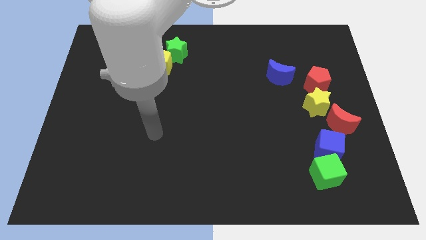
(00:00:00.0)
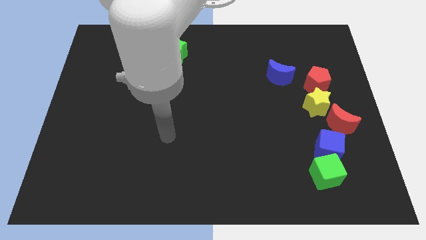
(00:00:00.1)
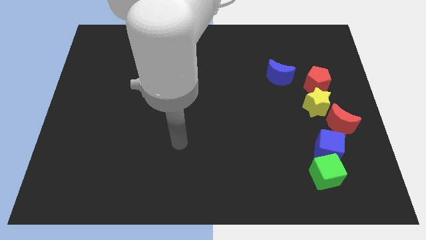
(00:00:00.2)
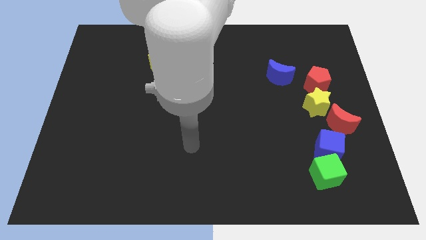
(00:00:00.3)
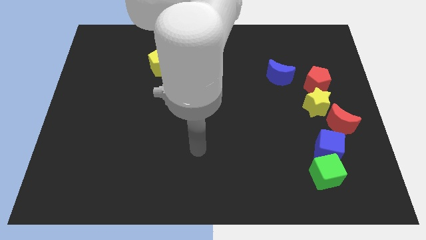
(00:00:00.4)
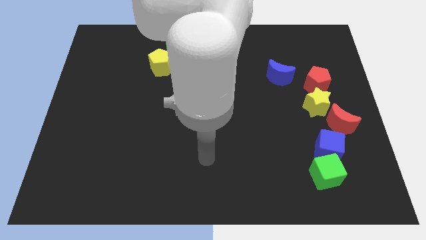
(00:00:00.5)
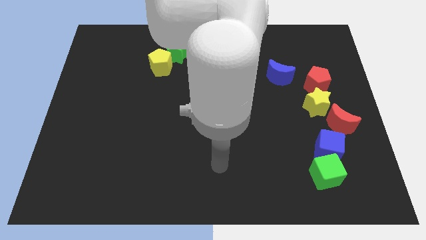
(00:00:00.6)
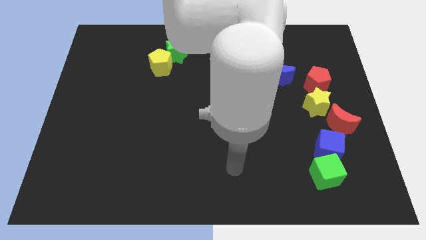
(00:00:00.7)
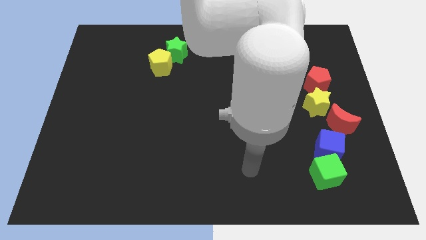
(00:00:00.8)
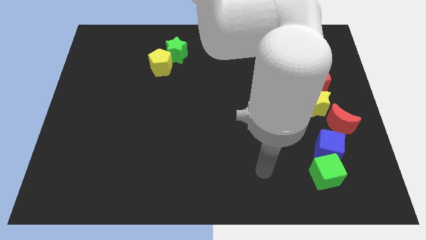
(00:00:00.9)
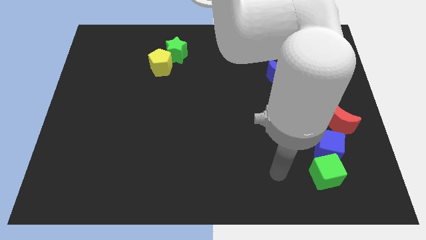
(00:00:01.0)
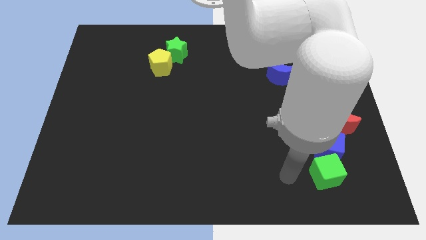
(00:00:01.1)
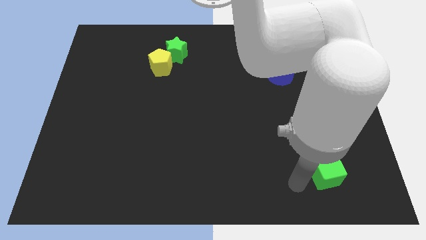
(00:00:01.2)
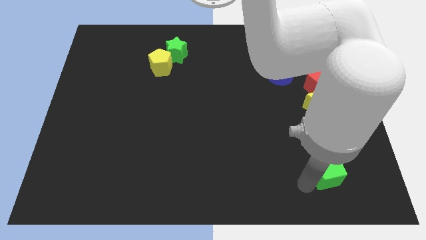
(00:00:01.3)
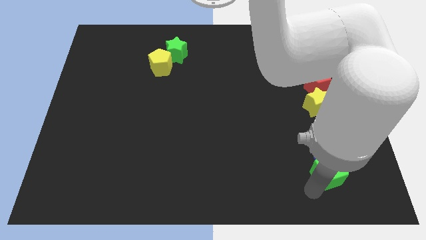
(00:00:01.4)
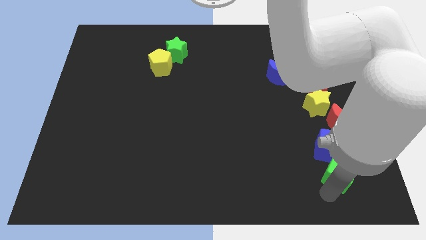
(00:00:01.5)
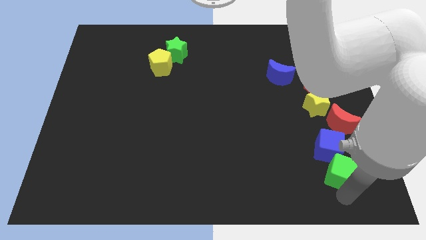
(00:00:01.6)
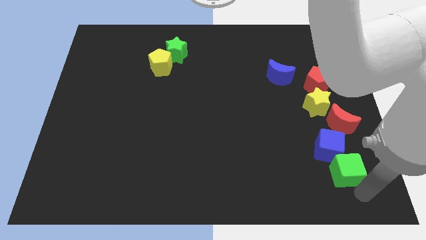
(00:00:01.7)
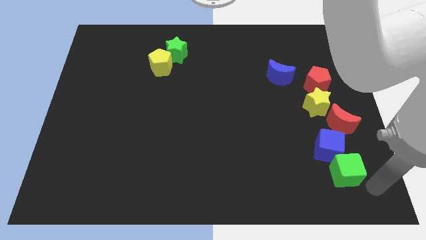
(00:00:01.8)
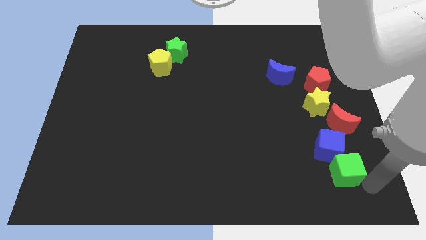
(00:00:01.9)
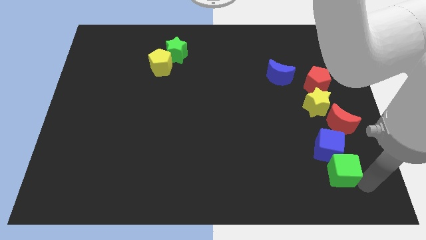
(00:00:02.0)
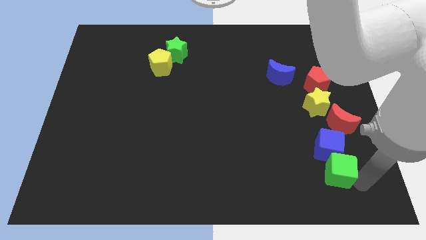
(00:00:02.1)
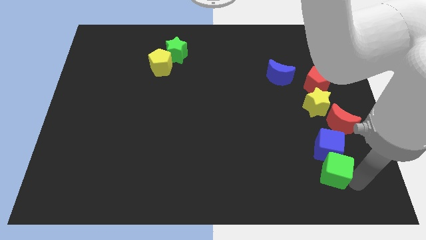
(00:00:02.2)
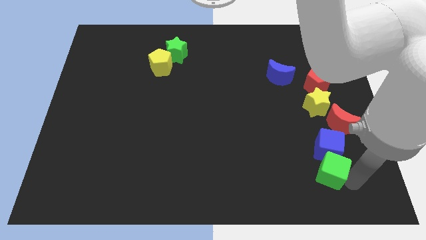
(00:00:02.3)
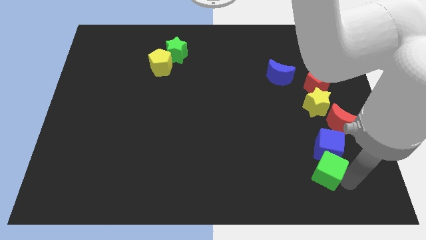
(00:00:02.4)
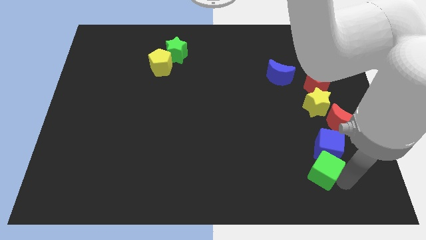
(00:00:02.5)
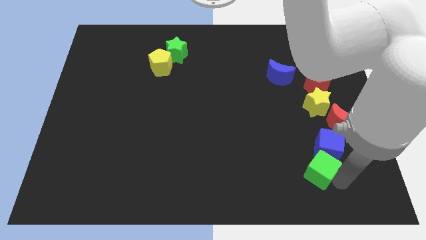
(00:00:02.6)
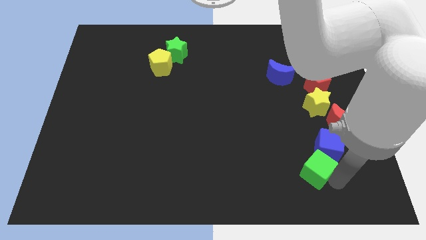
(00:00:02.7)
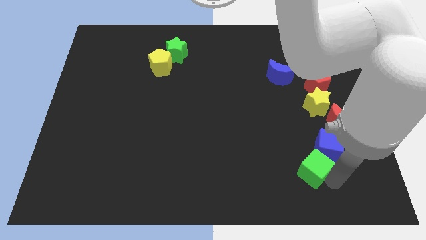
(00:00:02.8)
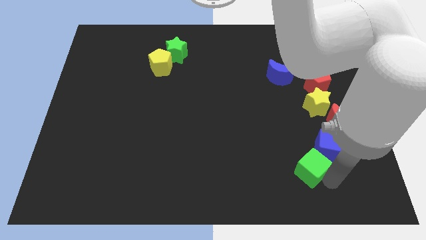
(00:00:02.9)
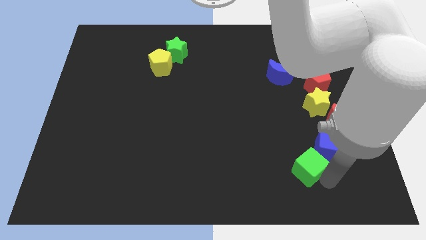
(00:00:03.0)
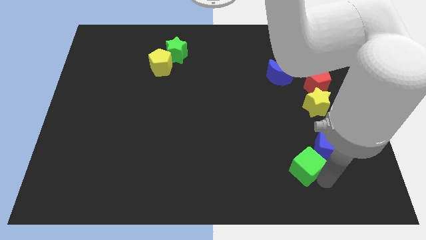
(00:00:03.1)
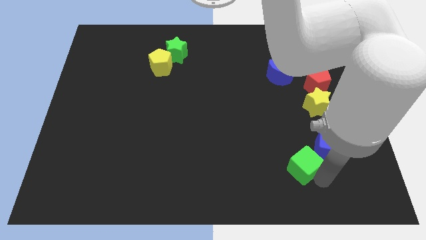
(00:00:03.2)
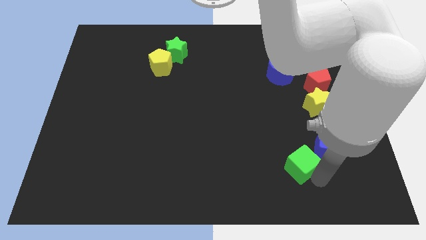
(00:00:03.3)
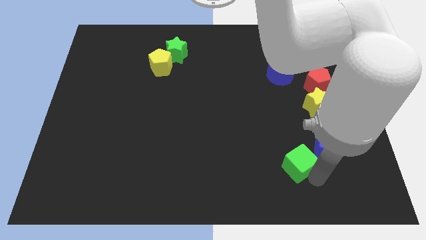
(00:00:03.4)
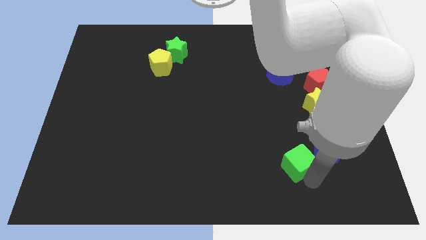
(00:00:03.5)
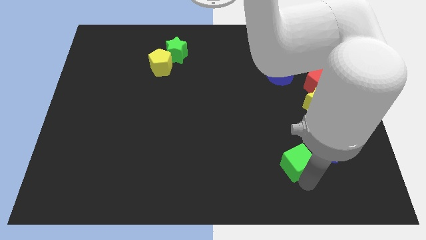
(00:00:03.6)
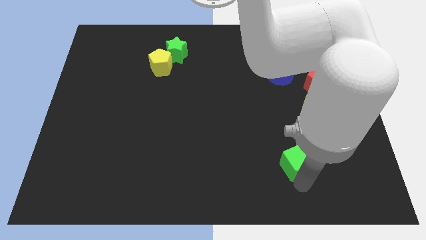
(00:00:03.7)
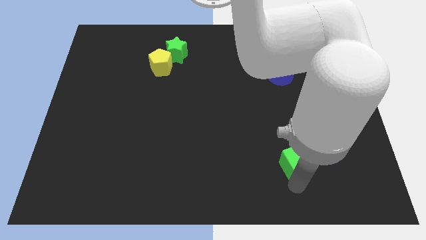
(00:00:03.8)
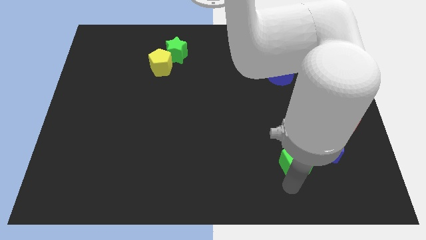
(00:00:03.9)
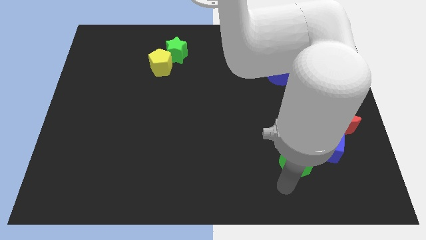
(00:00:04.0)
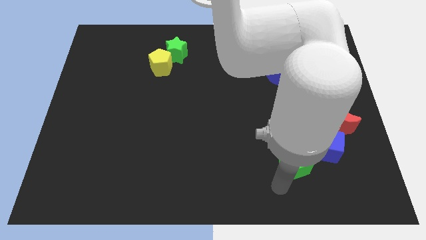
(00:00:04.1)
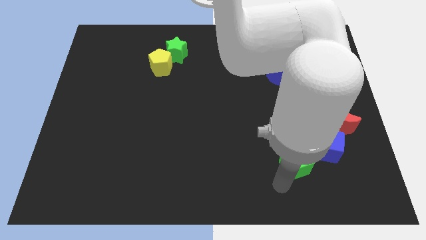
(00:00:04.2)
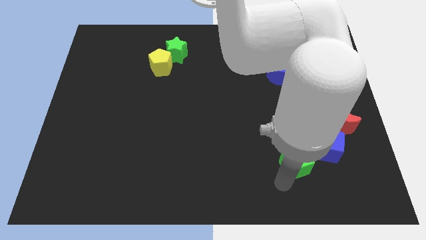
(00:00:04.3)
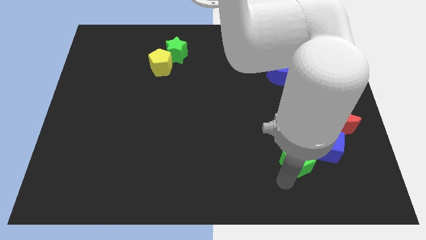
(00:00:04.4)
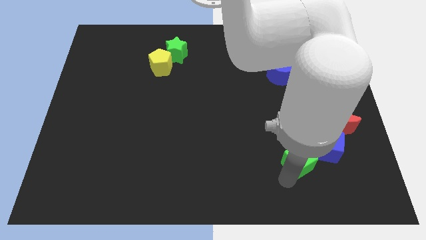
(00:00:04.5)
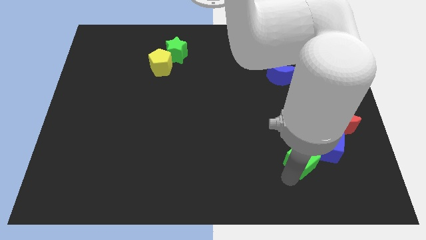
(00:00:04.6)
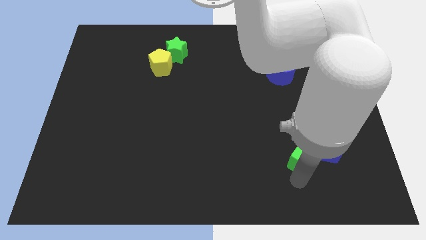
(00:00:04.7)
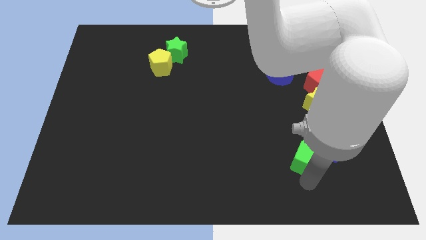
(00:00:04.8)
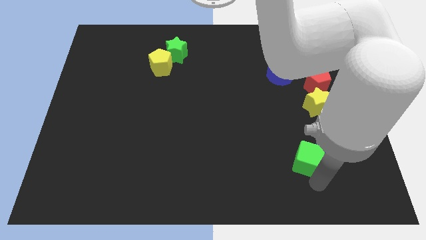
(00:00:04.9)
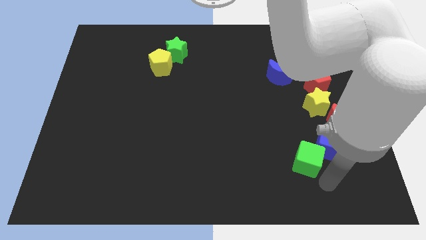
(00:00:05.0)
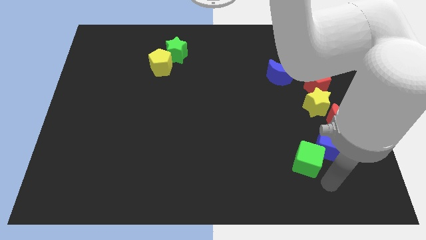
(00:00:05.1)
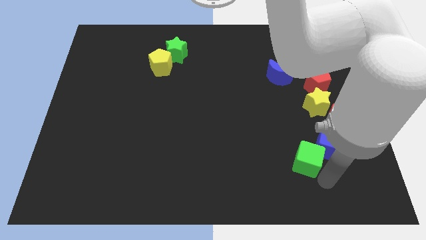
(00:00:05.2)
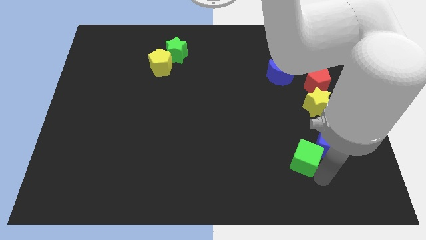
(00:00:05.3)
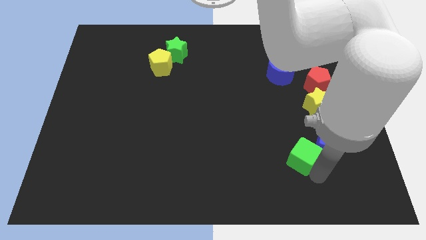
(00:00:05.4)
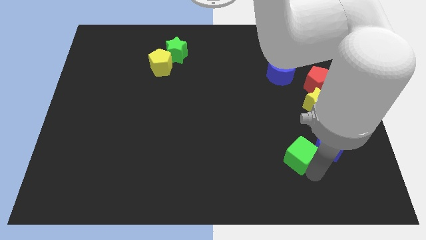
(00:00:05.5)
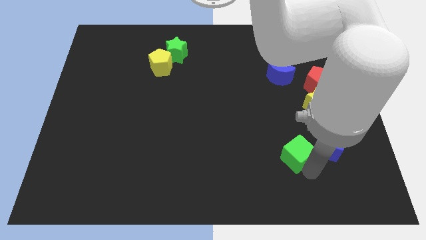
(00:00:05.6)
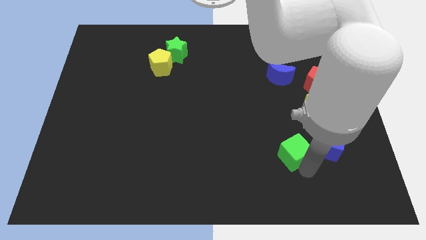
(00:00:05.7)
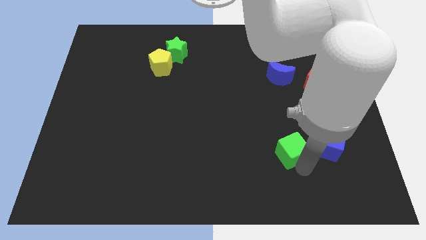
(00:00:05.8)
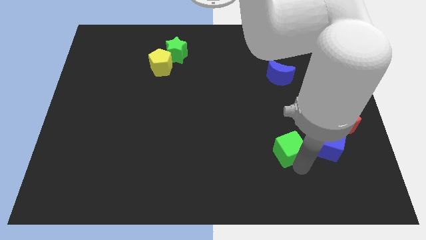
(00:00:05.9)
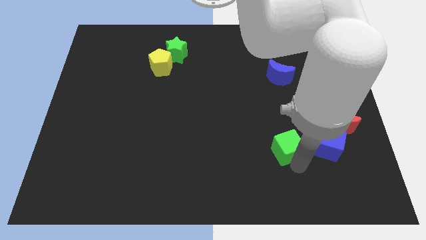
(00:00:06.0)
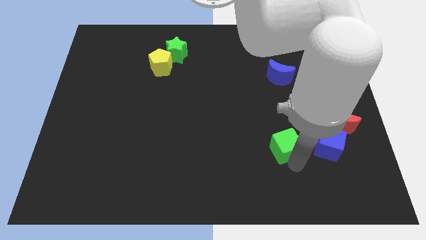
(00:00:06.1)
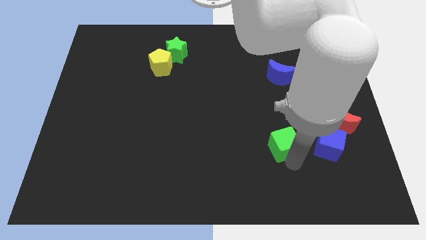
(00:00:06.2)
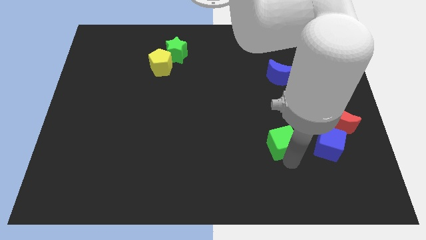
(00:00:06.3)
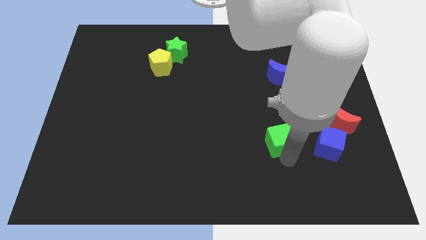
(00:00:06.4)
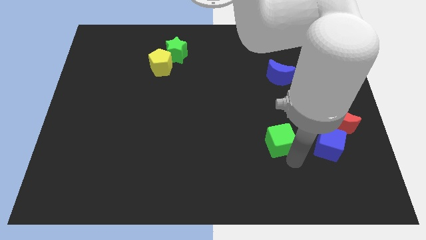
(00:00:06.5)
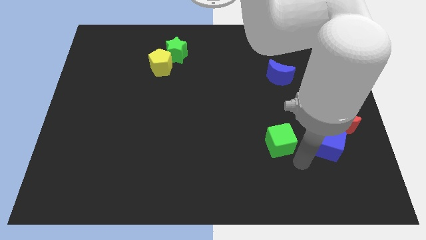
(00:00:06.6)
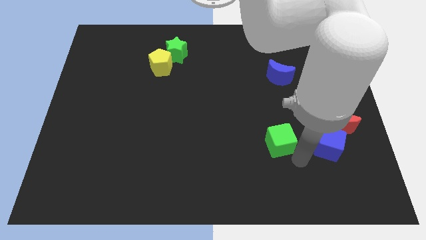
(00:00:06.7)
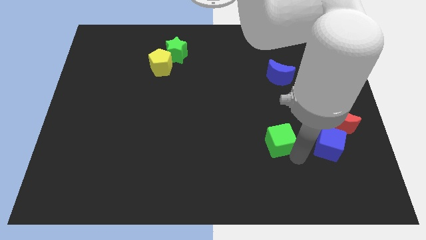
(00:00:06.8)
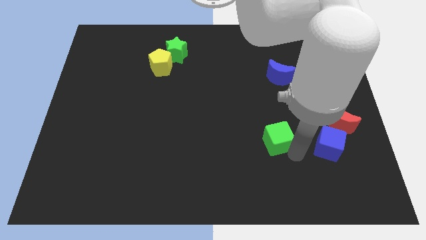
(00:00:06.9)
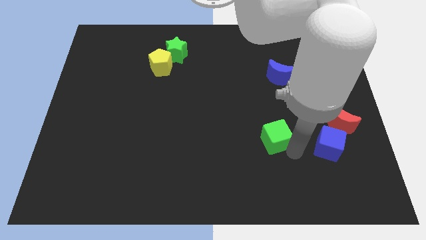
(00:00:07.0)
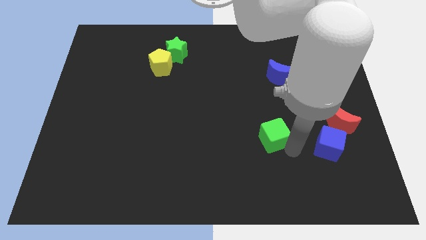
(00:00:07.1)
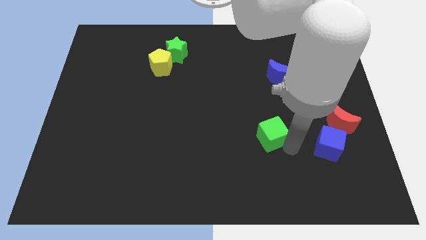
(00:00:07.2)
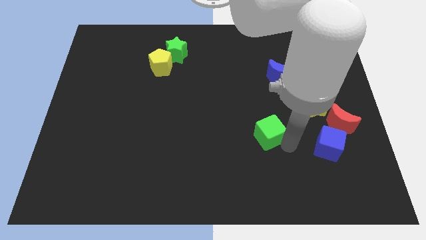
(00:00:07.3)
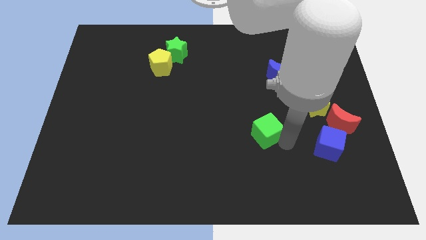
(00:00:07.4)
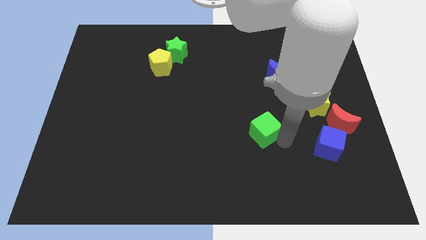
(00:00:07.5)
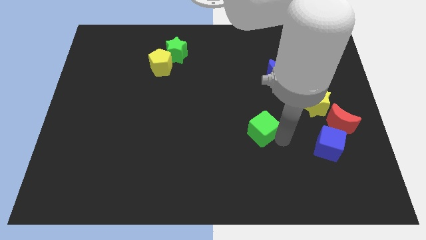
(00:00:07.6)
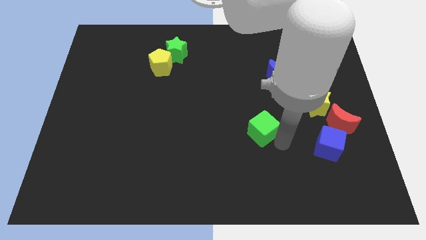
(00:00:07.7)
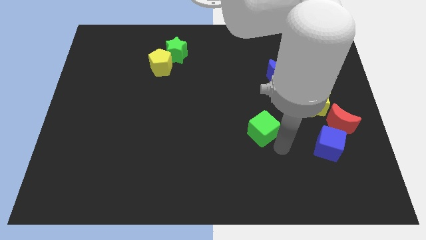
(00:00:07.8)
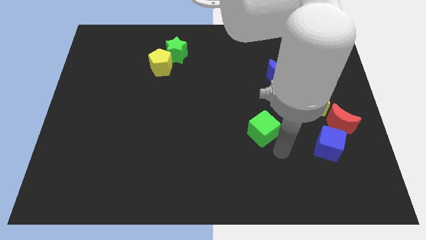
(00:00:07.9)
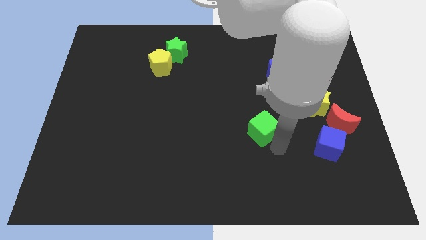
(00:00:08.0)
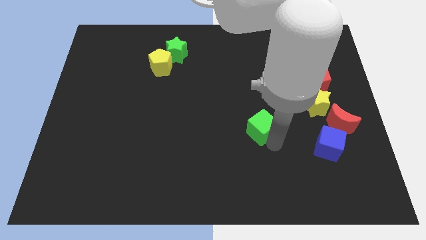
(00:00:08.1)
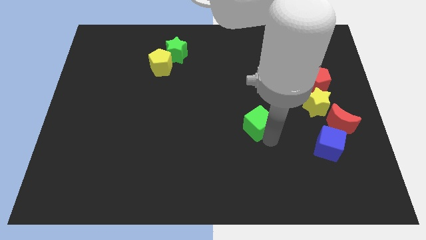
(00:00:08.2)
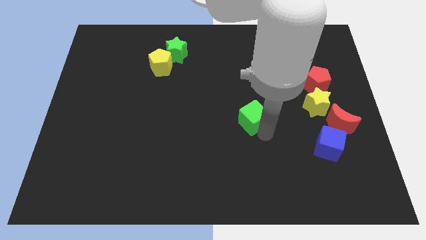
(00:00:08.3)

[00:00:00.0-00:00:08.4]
move the green cube upwards and to the left diagonally
